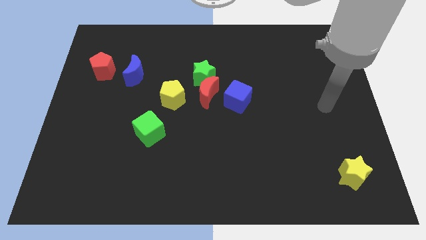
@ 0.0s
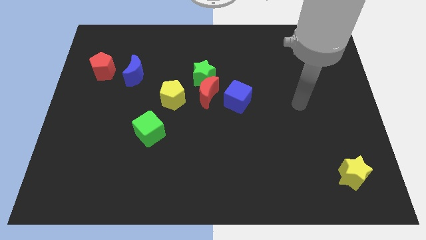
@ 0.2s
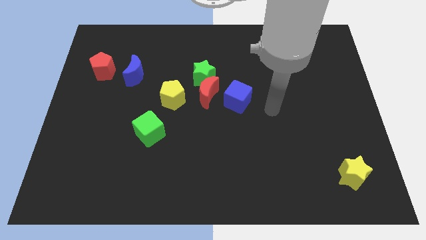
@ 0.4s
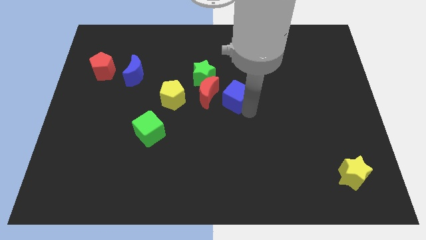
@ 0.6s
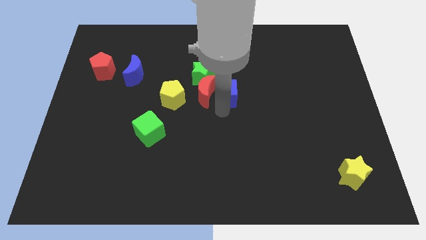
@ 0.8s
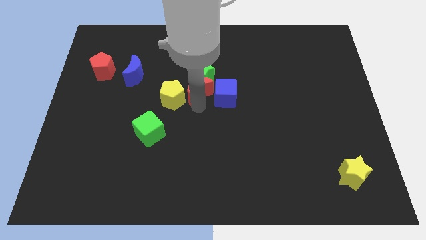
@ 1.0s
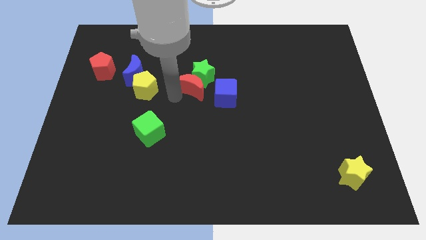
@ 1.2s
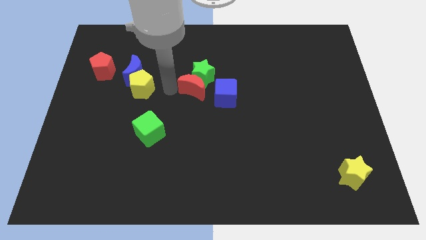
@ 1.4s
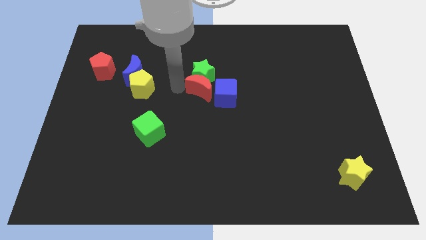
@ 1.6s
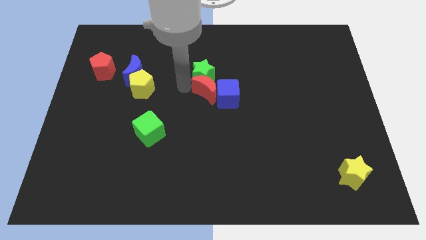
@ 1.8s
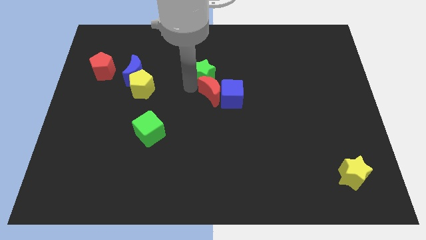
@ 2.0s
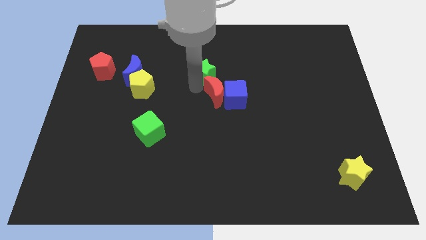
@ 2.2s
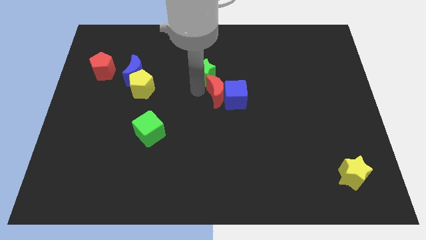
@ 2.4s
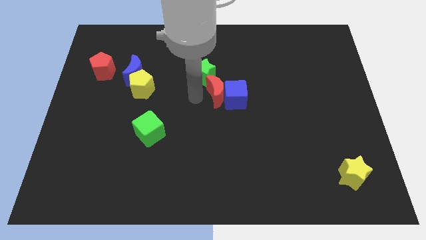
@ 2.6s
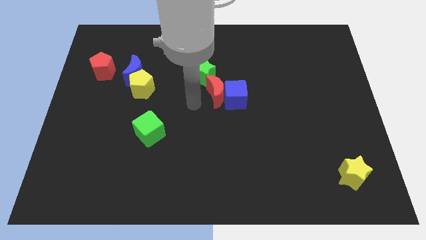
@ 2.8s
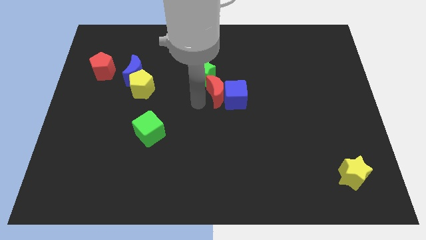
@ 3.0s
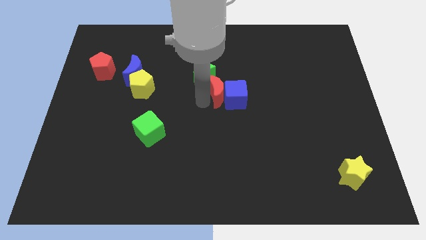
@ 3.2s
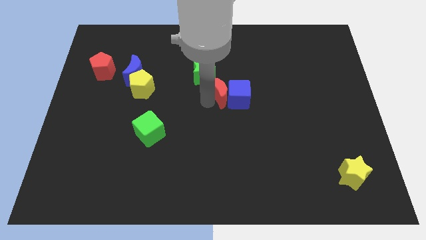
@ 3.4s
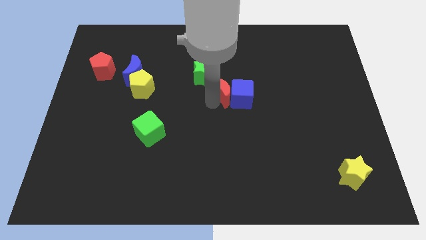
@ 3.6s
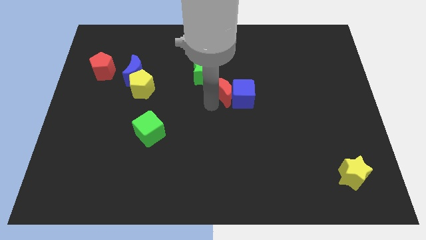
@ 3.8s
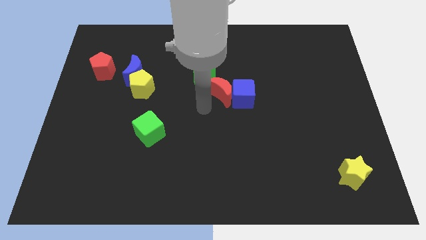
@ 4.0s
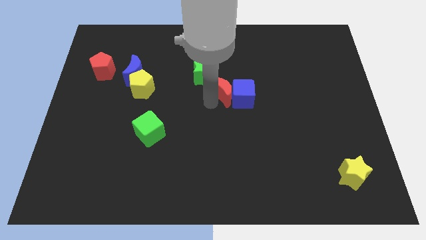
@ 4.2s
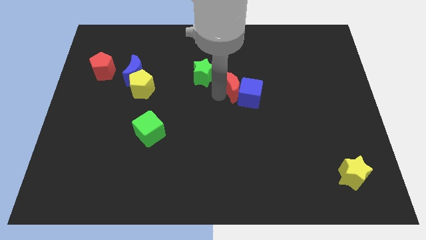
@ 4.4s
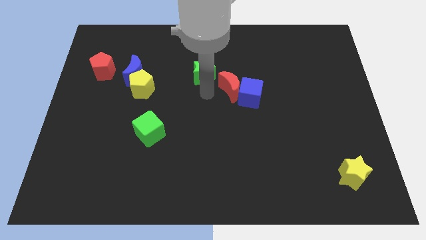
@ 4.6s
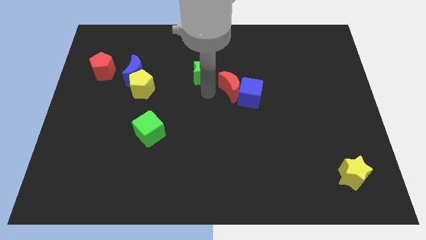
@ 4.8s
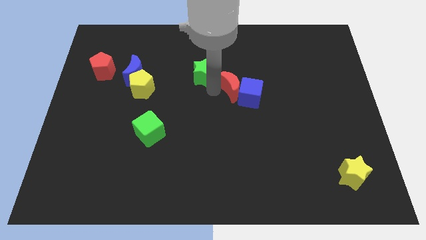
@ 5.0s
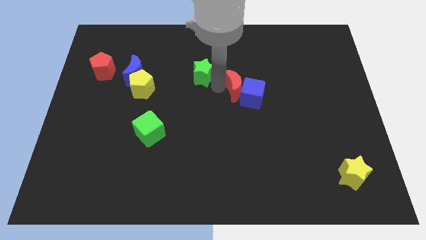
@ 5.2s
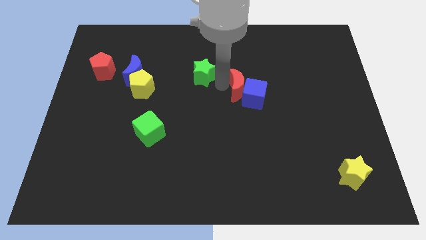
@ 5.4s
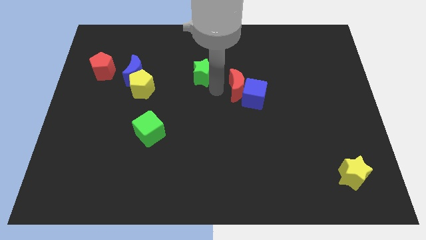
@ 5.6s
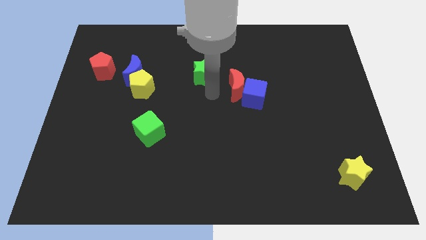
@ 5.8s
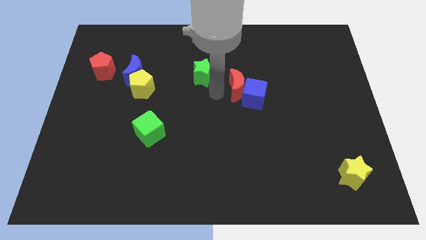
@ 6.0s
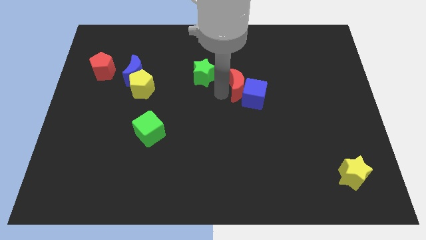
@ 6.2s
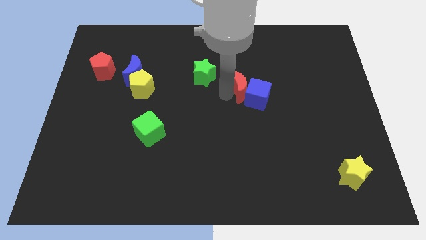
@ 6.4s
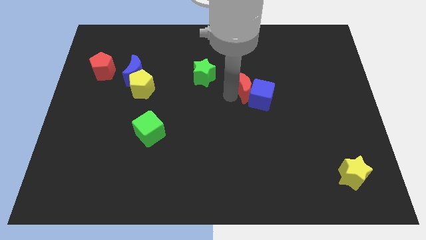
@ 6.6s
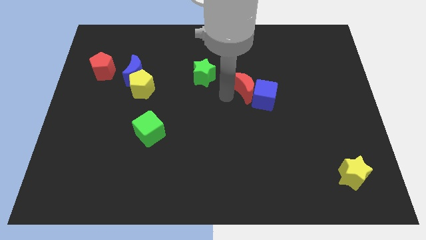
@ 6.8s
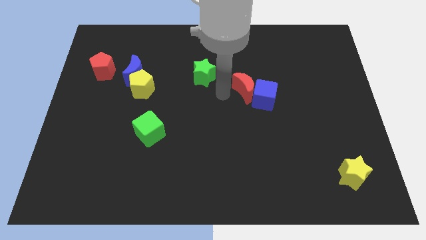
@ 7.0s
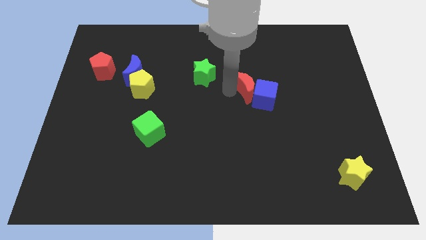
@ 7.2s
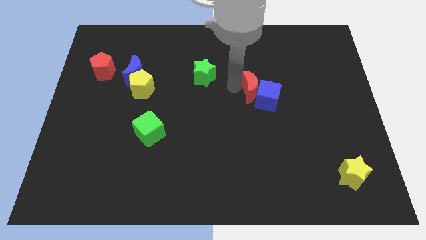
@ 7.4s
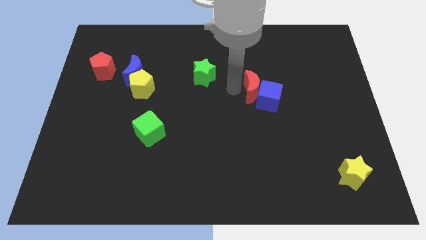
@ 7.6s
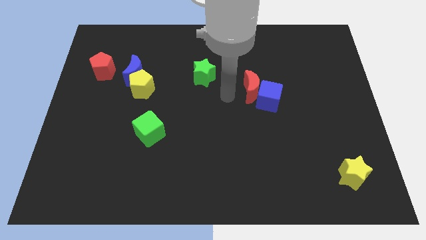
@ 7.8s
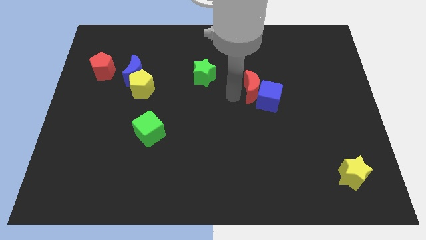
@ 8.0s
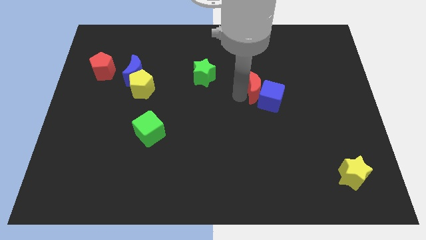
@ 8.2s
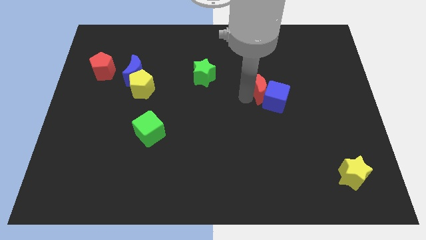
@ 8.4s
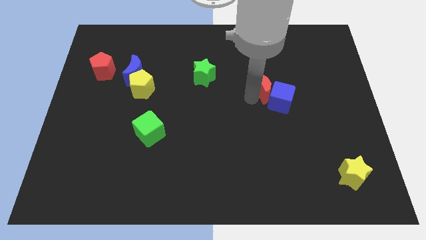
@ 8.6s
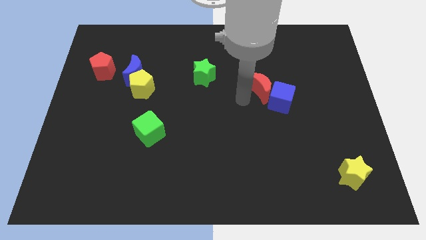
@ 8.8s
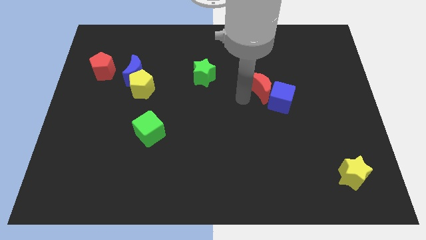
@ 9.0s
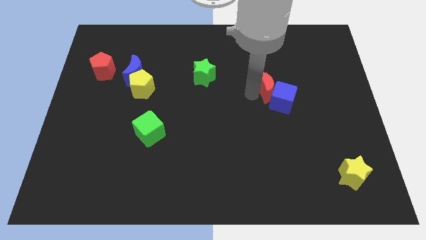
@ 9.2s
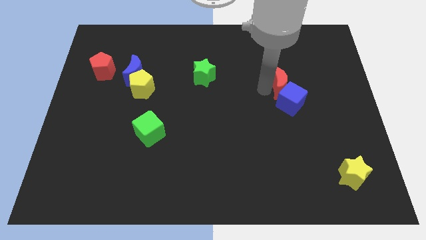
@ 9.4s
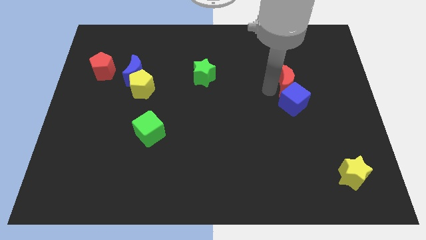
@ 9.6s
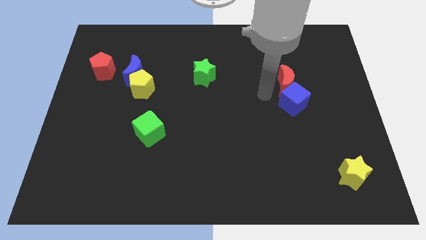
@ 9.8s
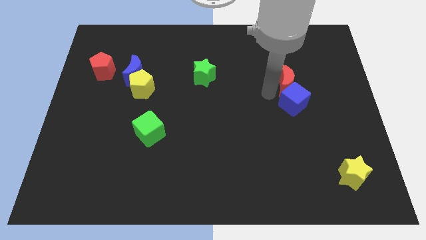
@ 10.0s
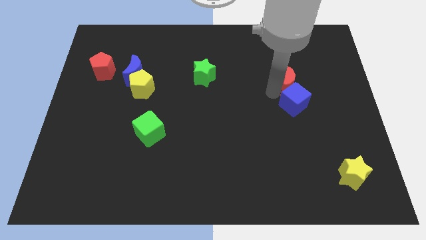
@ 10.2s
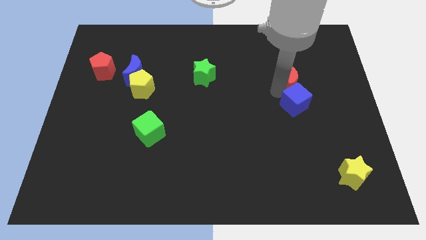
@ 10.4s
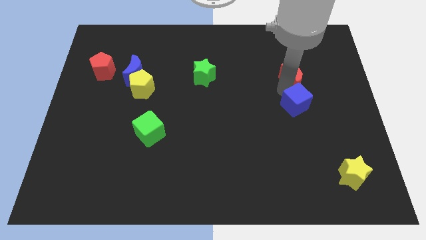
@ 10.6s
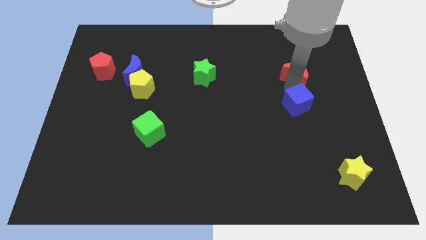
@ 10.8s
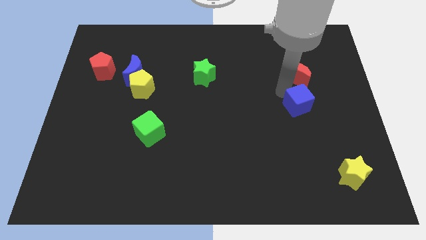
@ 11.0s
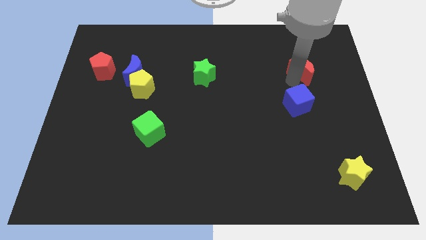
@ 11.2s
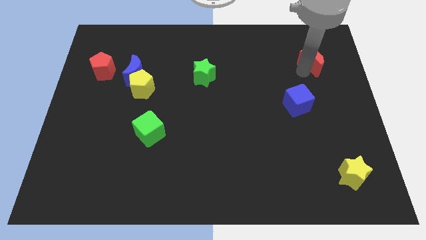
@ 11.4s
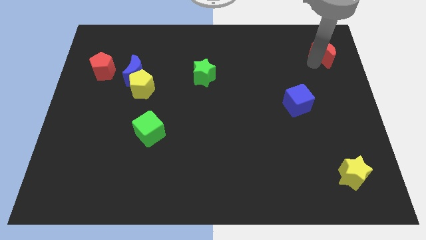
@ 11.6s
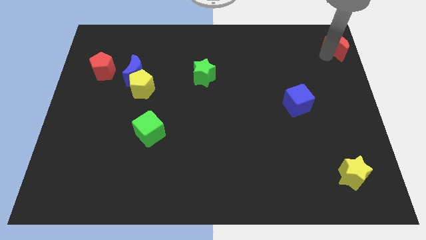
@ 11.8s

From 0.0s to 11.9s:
slide the red moon to the upper right corner

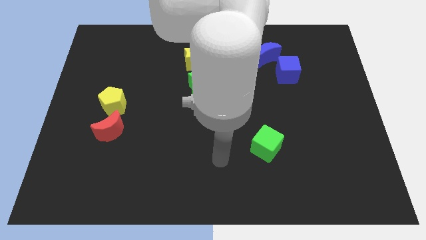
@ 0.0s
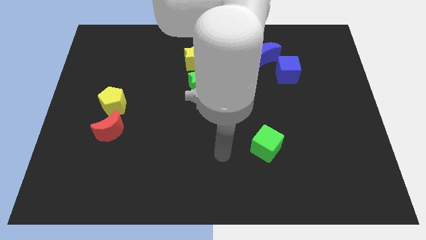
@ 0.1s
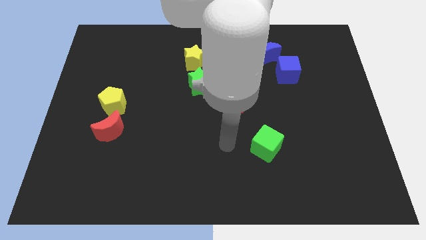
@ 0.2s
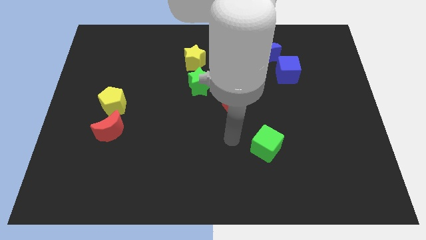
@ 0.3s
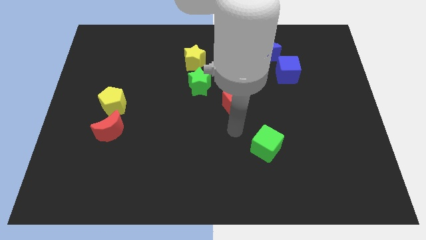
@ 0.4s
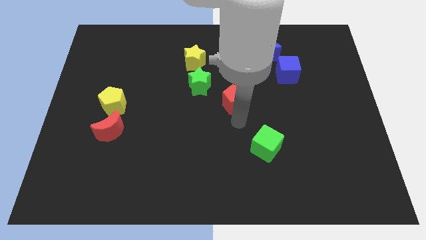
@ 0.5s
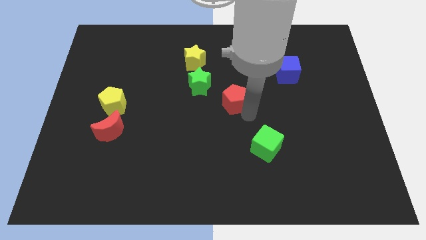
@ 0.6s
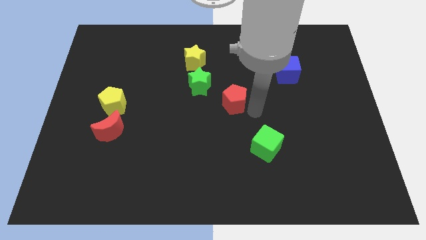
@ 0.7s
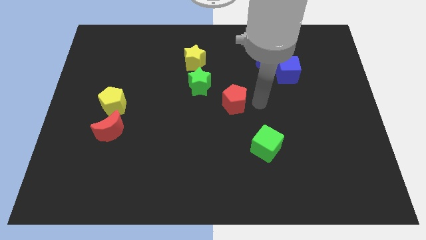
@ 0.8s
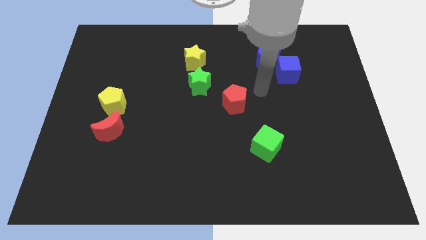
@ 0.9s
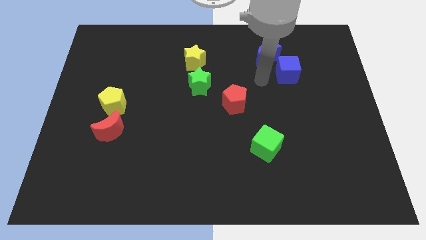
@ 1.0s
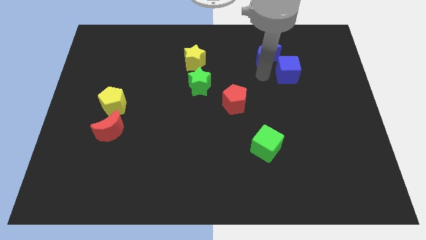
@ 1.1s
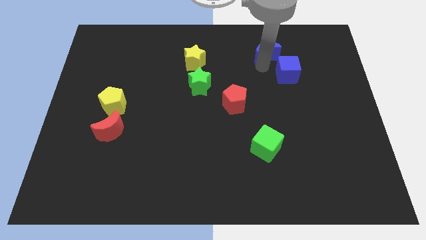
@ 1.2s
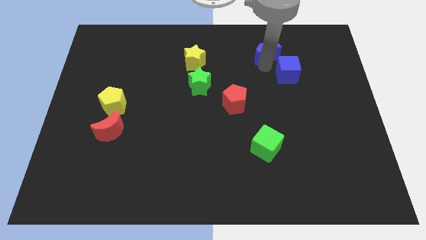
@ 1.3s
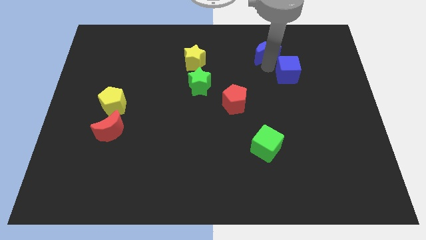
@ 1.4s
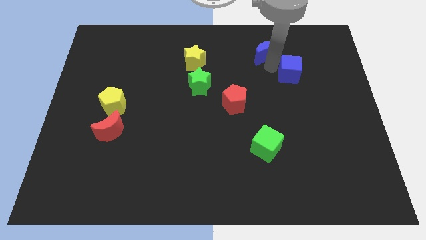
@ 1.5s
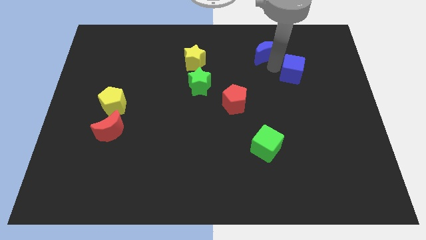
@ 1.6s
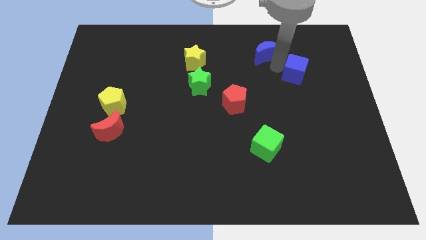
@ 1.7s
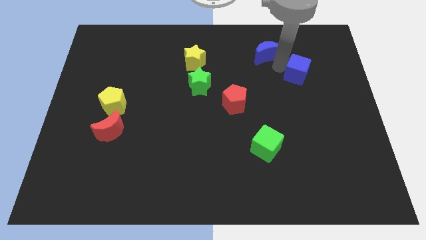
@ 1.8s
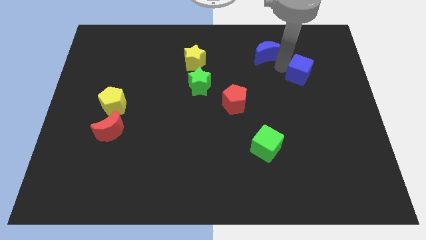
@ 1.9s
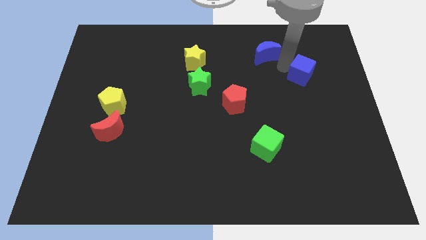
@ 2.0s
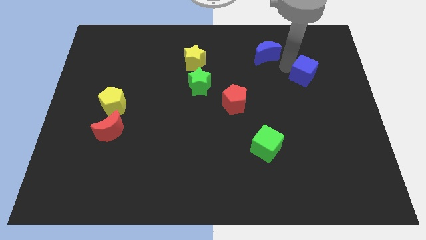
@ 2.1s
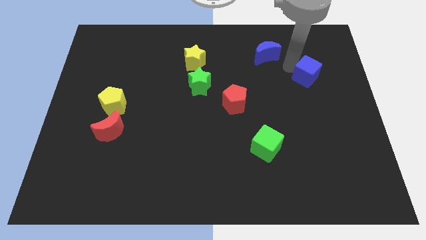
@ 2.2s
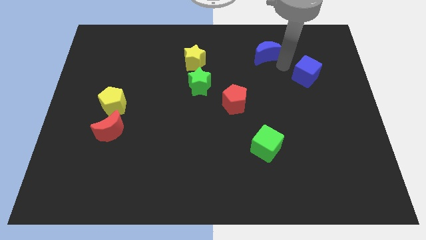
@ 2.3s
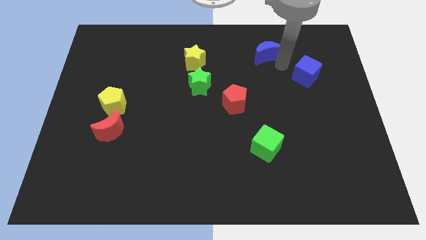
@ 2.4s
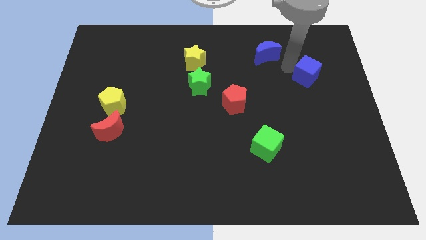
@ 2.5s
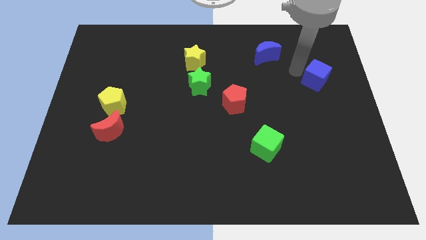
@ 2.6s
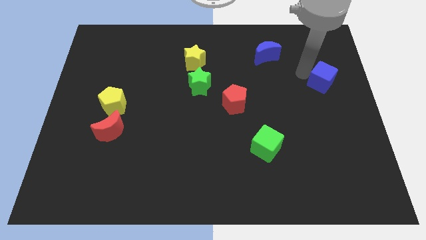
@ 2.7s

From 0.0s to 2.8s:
push the blue cube to the right side
